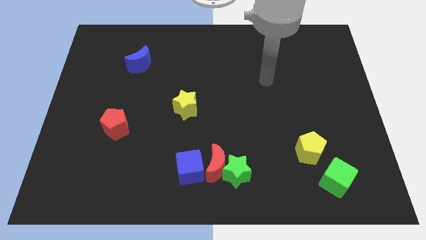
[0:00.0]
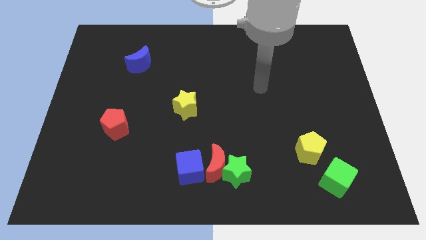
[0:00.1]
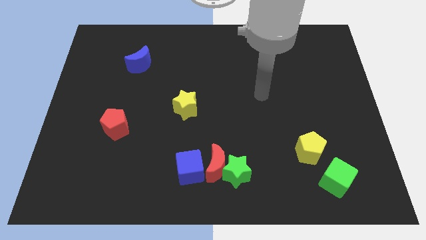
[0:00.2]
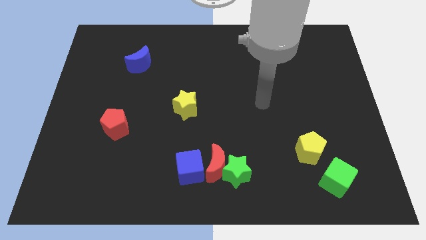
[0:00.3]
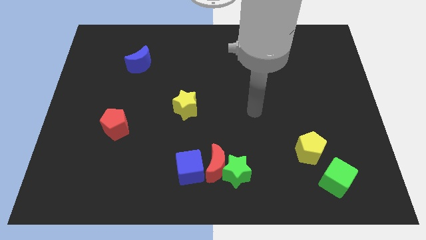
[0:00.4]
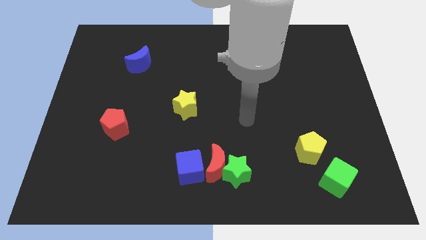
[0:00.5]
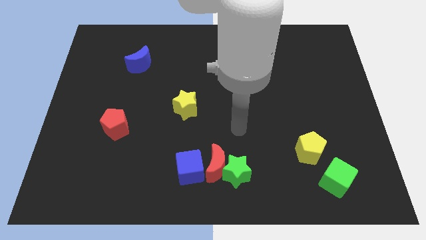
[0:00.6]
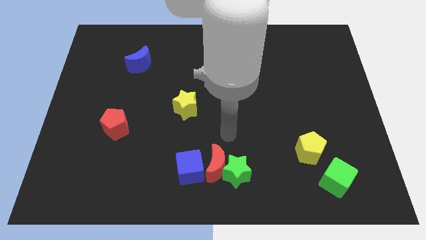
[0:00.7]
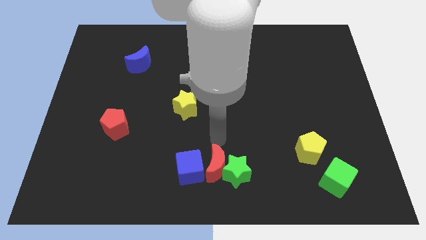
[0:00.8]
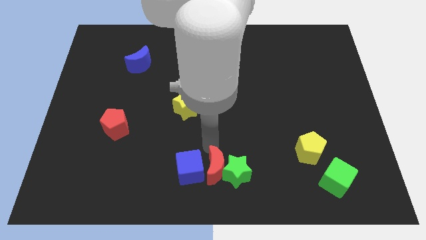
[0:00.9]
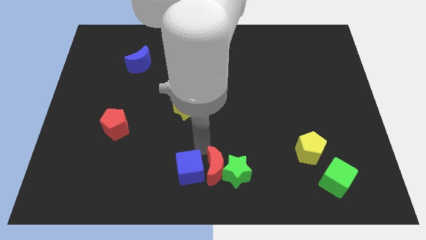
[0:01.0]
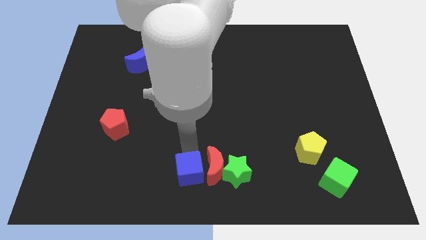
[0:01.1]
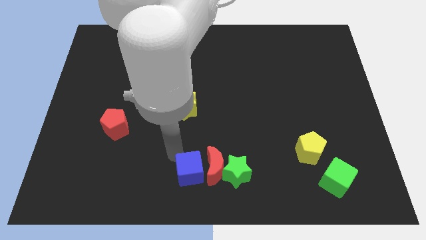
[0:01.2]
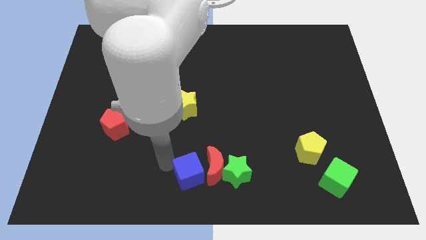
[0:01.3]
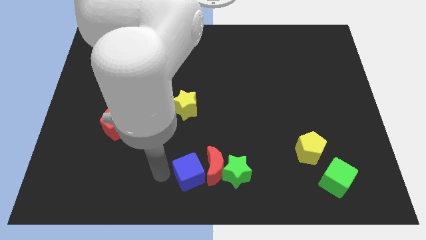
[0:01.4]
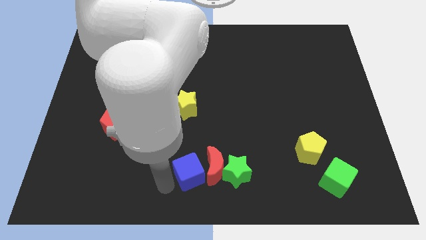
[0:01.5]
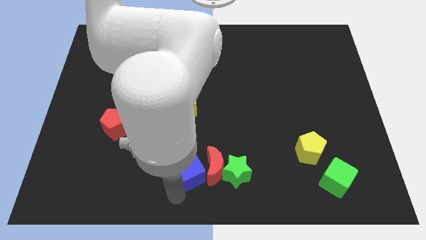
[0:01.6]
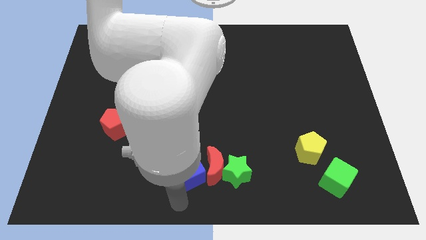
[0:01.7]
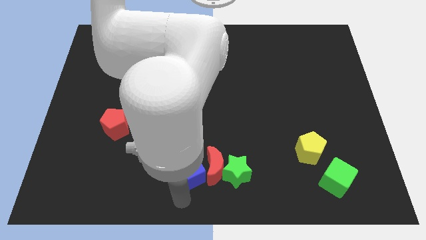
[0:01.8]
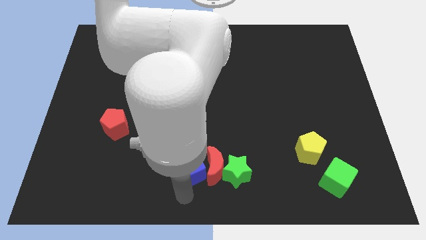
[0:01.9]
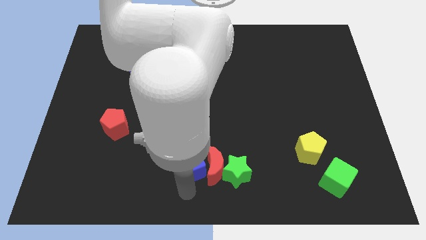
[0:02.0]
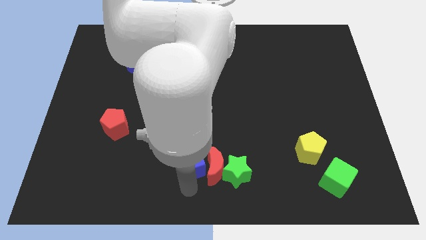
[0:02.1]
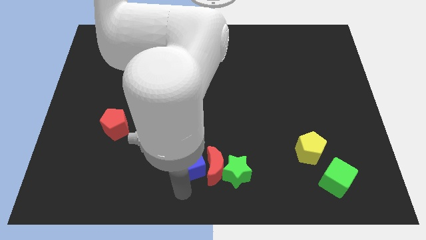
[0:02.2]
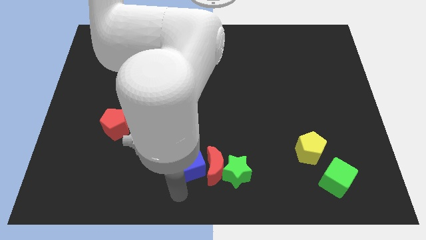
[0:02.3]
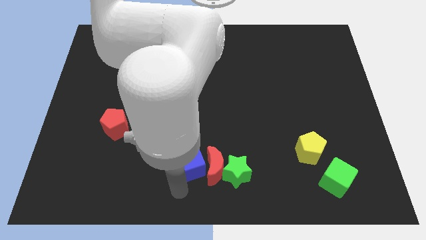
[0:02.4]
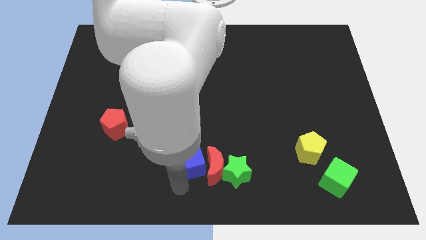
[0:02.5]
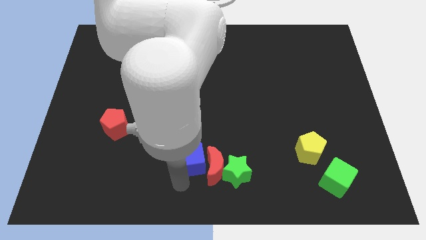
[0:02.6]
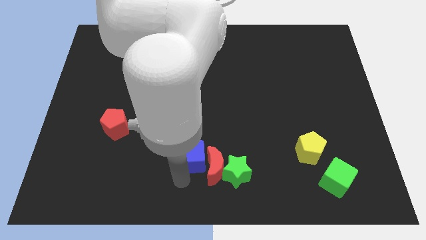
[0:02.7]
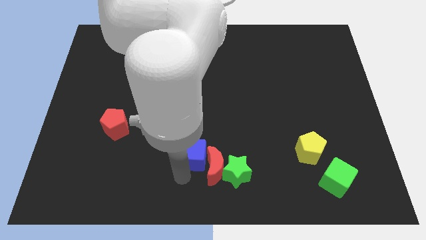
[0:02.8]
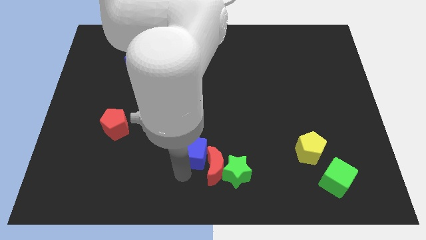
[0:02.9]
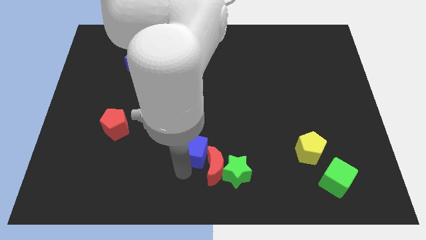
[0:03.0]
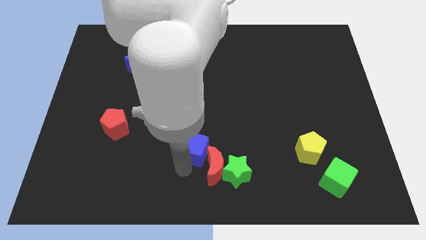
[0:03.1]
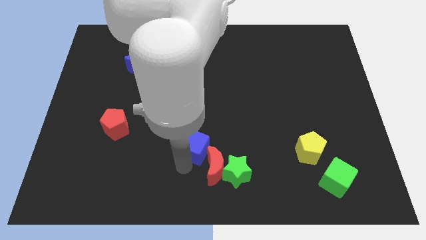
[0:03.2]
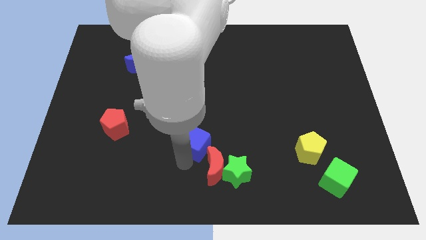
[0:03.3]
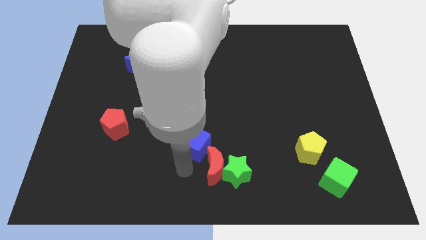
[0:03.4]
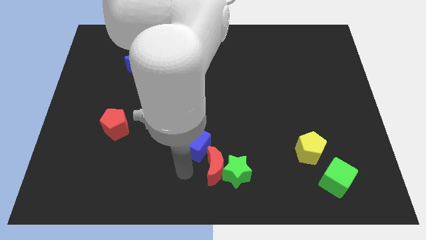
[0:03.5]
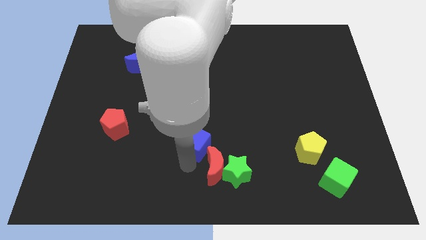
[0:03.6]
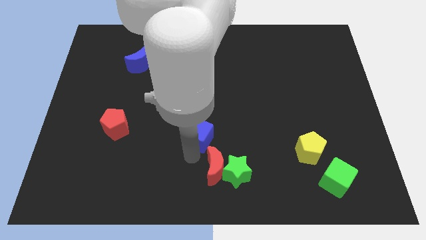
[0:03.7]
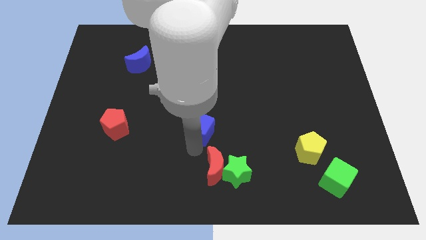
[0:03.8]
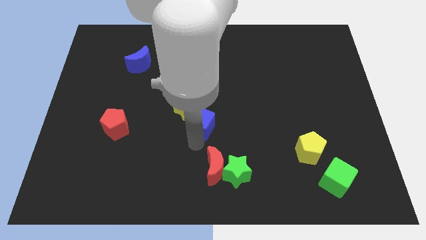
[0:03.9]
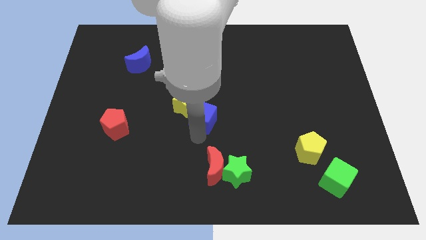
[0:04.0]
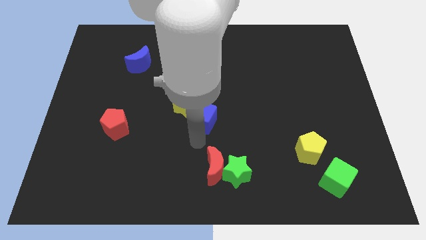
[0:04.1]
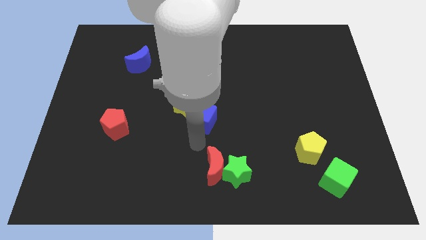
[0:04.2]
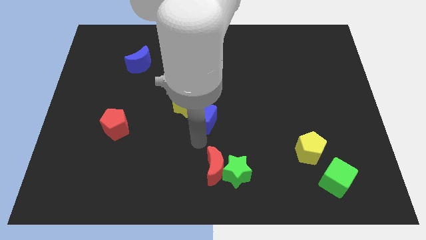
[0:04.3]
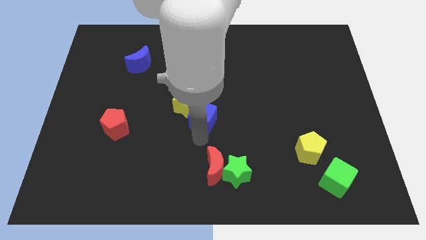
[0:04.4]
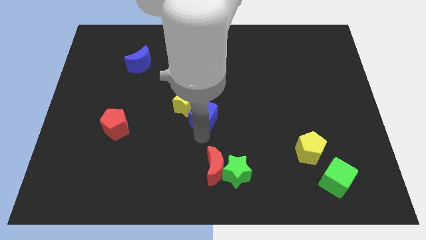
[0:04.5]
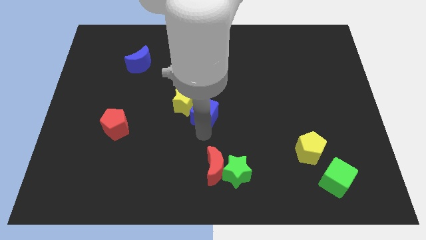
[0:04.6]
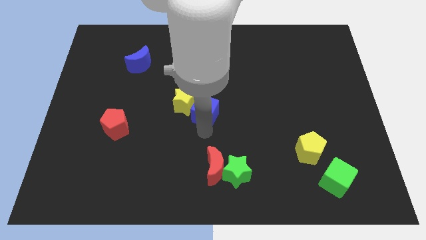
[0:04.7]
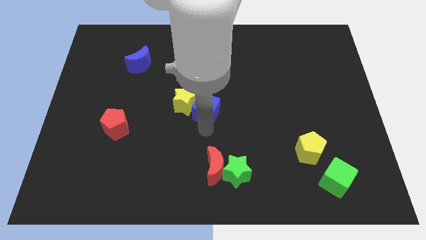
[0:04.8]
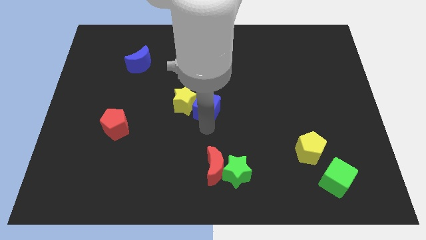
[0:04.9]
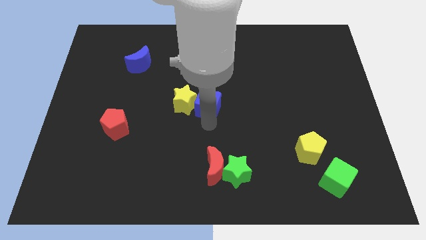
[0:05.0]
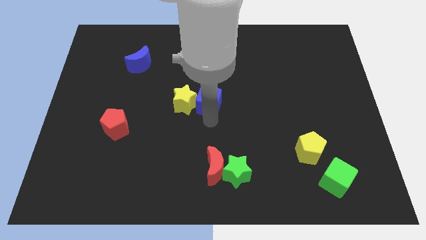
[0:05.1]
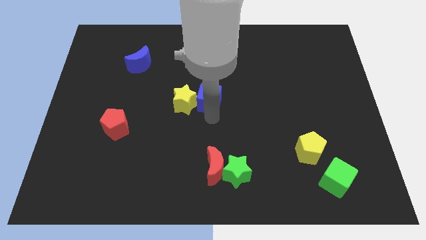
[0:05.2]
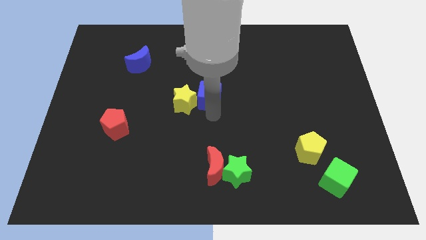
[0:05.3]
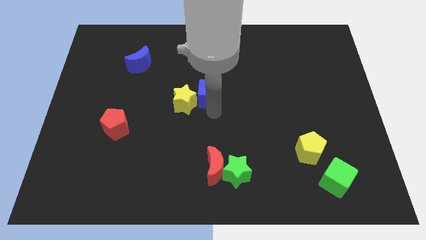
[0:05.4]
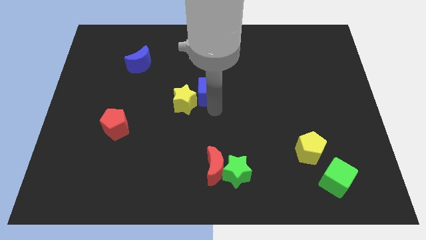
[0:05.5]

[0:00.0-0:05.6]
move the blue cube up

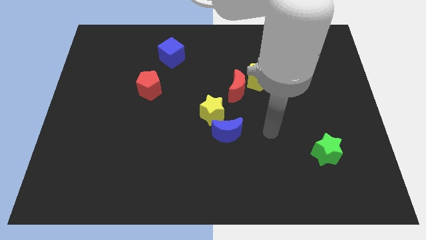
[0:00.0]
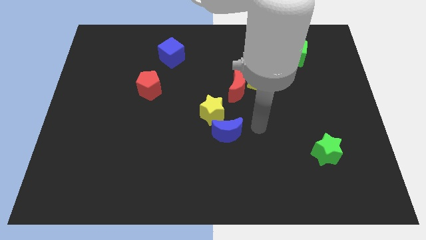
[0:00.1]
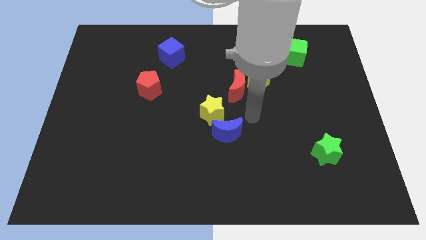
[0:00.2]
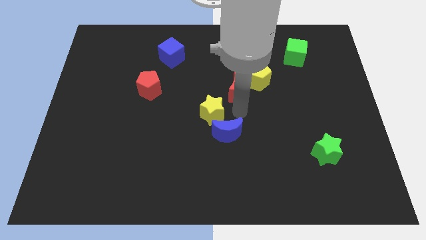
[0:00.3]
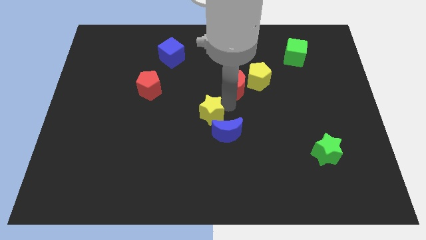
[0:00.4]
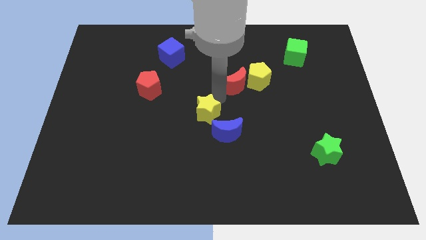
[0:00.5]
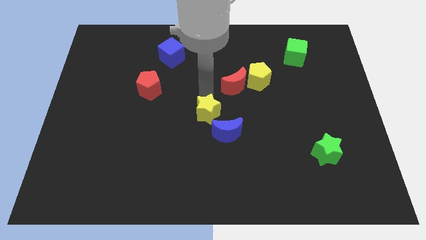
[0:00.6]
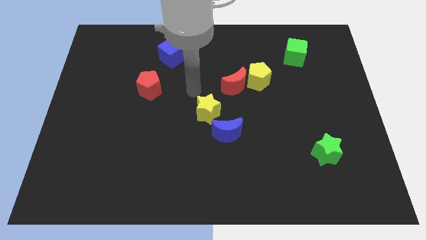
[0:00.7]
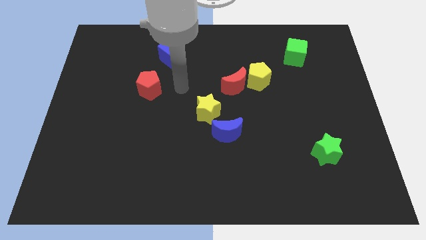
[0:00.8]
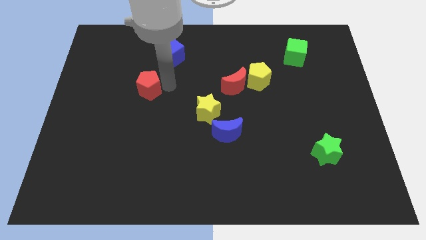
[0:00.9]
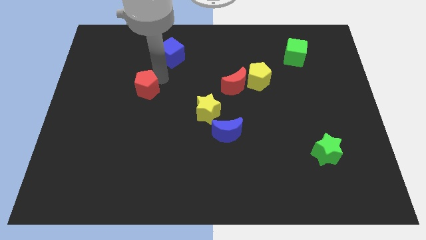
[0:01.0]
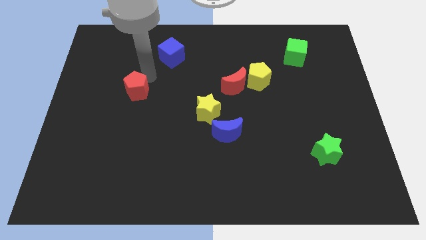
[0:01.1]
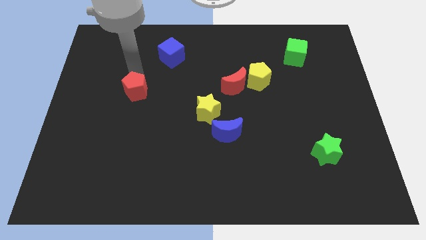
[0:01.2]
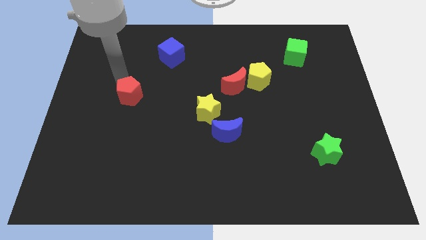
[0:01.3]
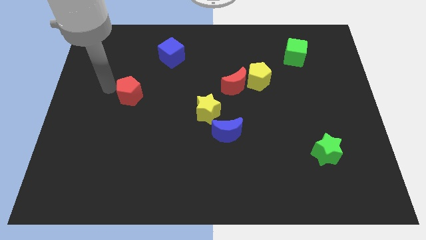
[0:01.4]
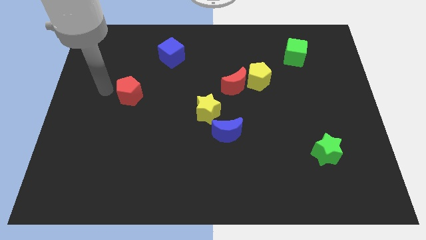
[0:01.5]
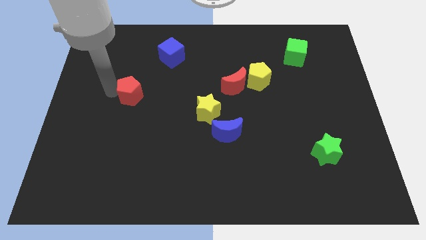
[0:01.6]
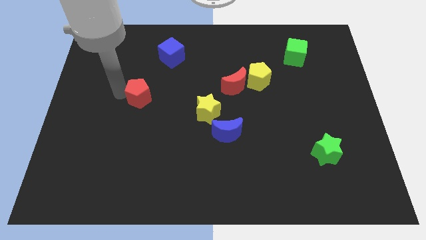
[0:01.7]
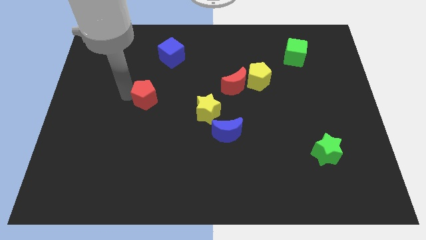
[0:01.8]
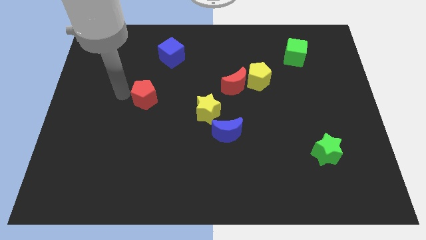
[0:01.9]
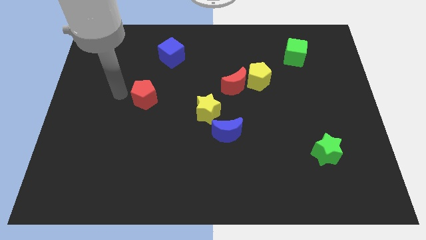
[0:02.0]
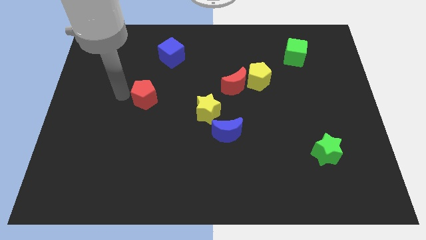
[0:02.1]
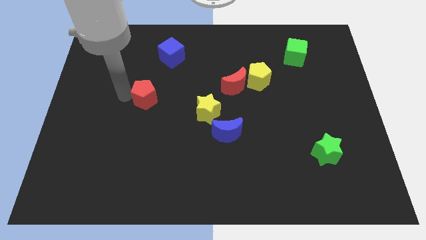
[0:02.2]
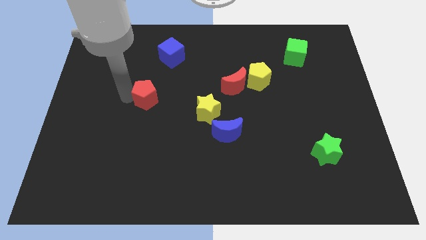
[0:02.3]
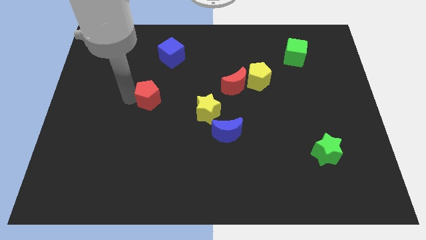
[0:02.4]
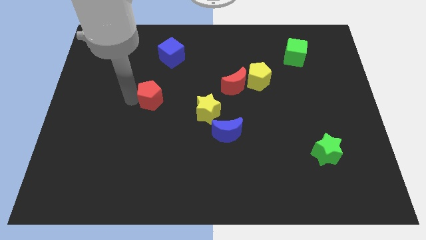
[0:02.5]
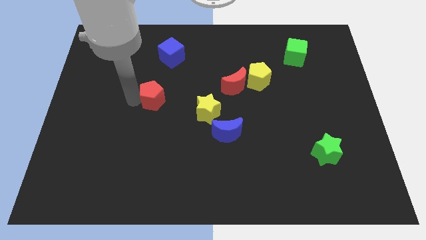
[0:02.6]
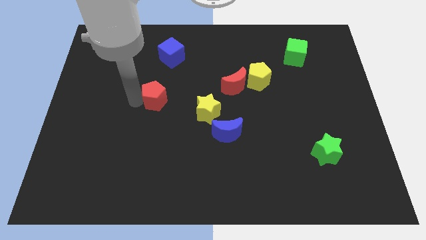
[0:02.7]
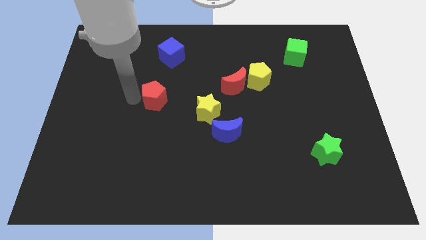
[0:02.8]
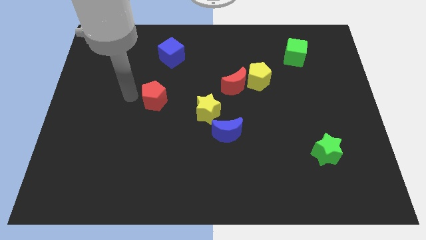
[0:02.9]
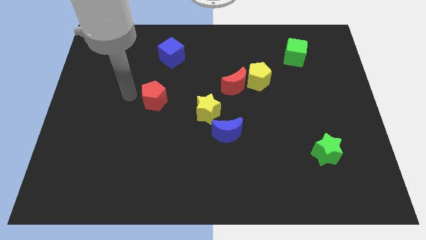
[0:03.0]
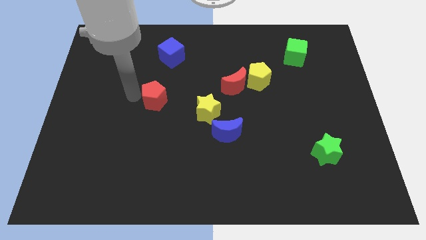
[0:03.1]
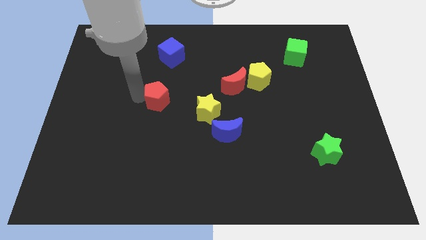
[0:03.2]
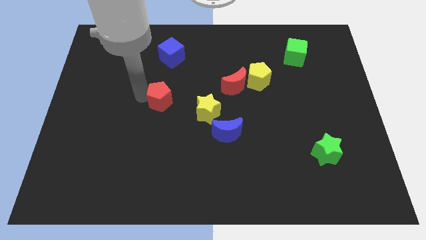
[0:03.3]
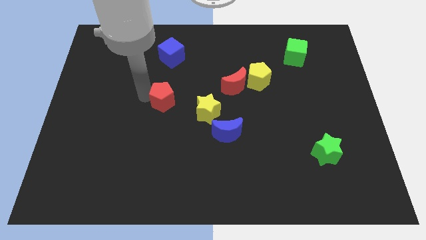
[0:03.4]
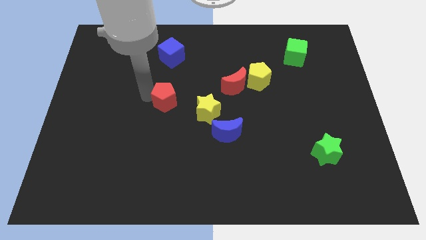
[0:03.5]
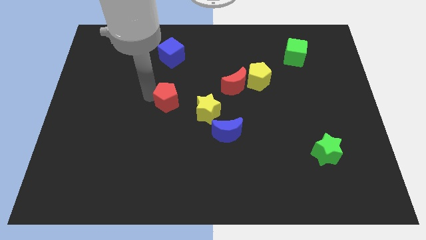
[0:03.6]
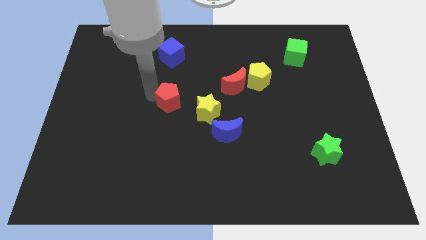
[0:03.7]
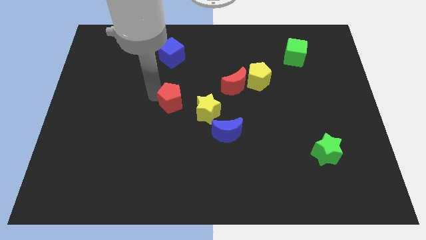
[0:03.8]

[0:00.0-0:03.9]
move the red pentagon a little bit down and to the right
